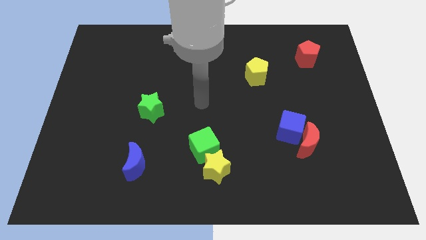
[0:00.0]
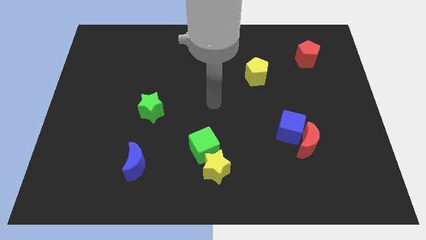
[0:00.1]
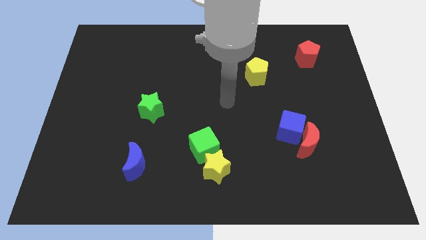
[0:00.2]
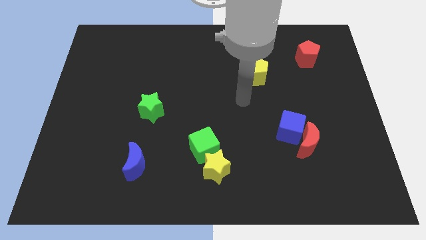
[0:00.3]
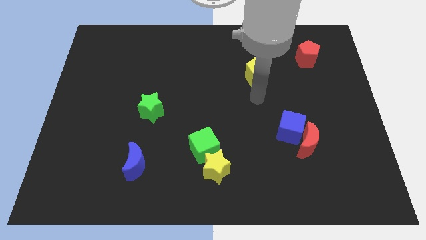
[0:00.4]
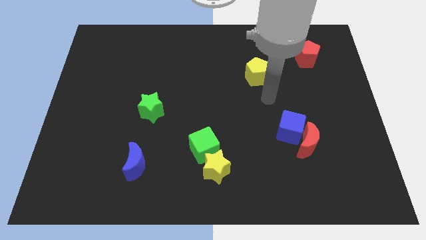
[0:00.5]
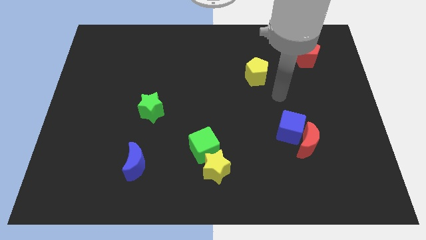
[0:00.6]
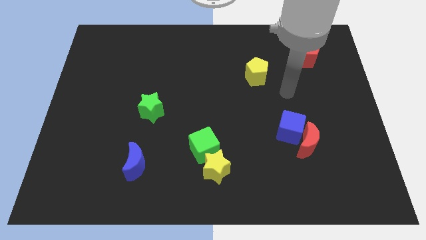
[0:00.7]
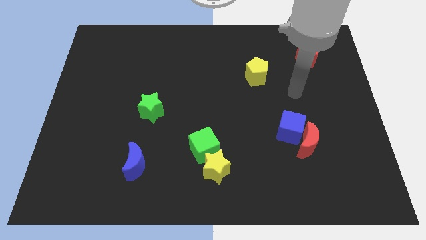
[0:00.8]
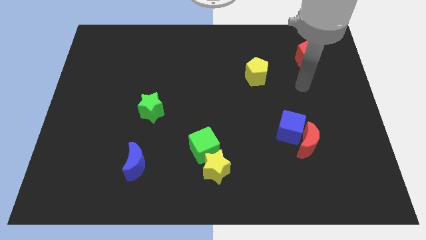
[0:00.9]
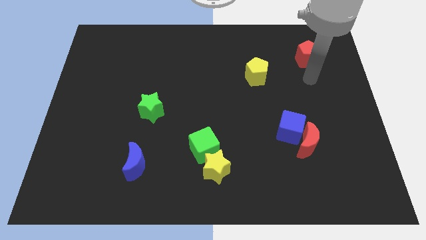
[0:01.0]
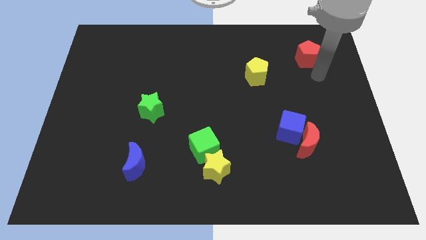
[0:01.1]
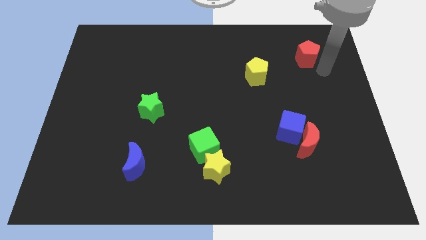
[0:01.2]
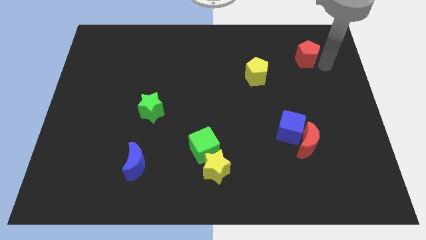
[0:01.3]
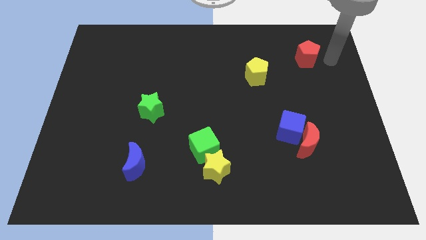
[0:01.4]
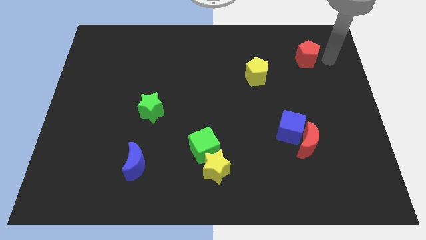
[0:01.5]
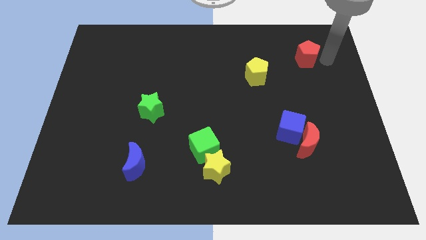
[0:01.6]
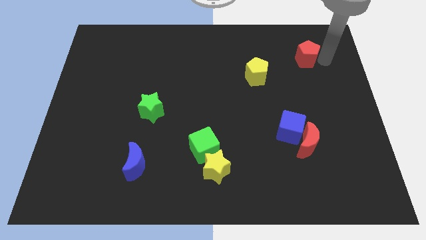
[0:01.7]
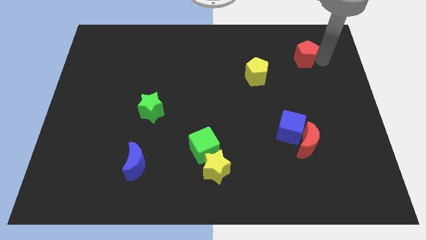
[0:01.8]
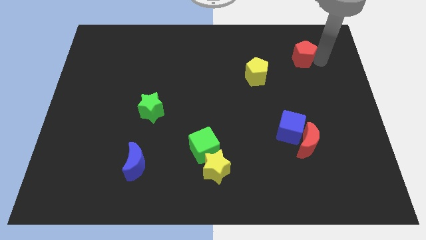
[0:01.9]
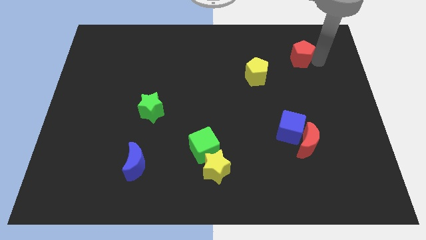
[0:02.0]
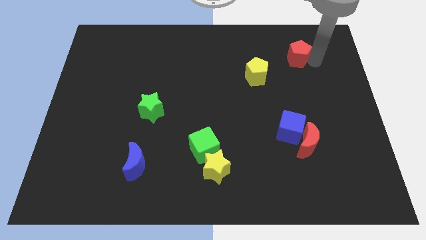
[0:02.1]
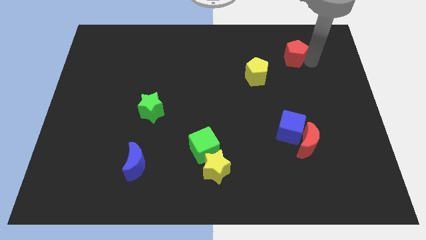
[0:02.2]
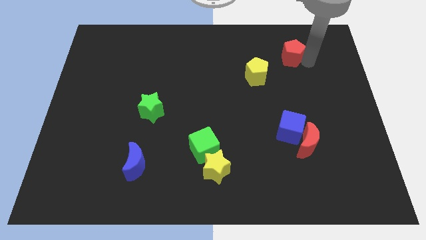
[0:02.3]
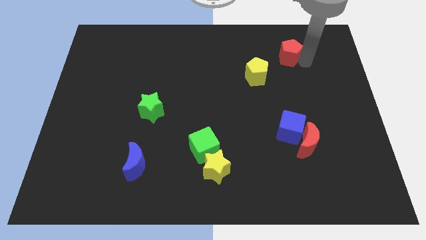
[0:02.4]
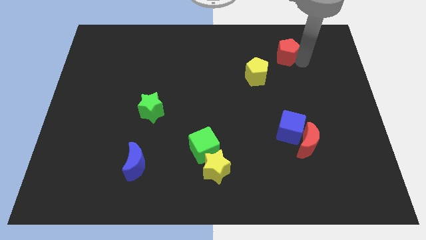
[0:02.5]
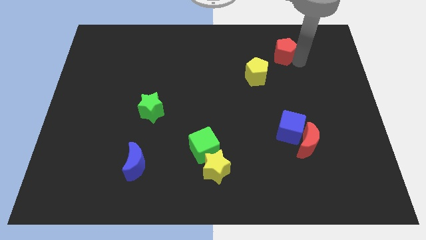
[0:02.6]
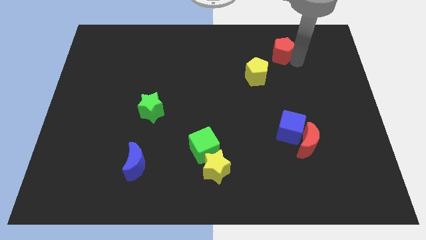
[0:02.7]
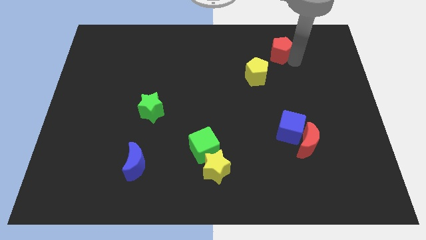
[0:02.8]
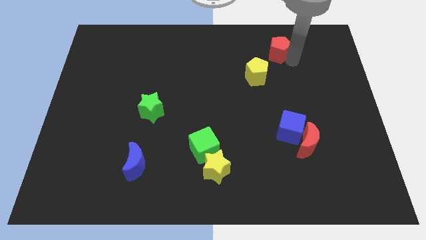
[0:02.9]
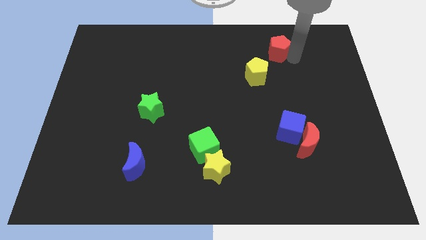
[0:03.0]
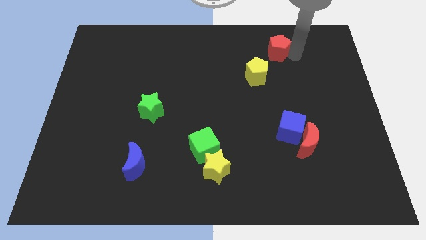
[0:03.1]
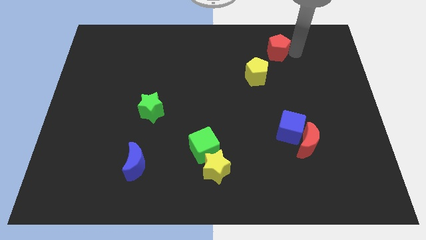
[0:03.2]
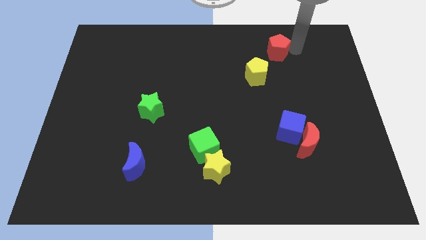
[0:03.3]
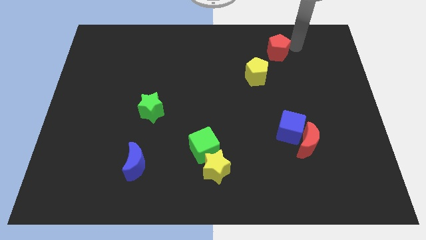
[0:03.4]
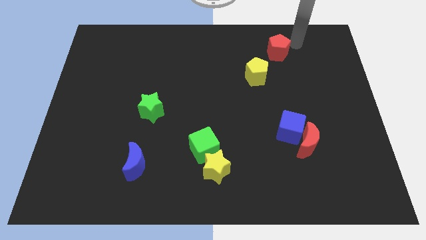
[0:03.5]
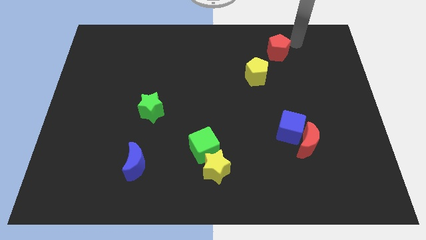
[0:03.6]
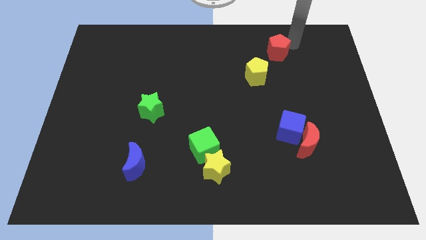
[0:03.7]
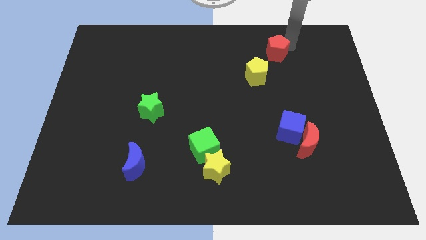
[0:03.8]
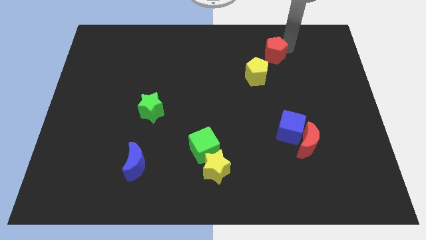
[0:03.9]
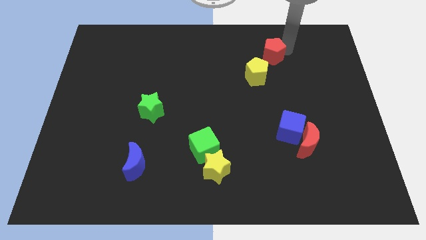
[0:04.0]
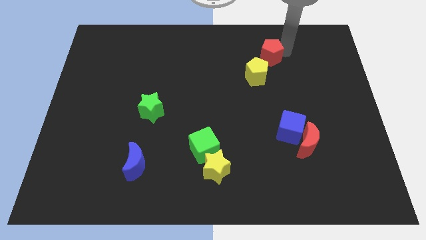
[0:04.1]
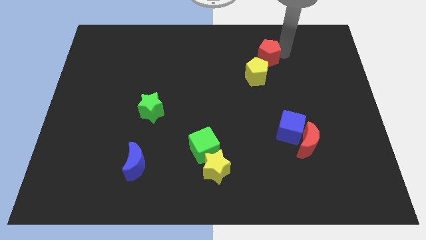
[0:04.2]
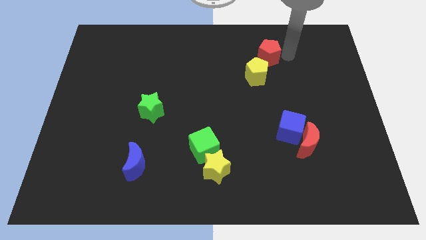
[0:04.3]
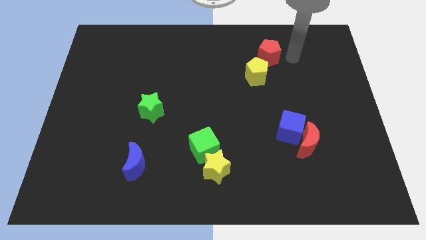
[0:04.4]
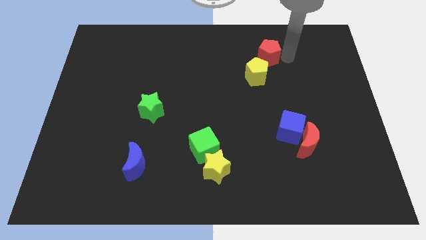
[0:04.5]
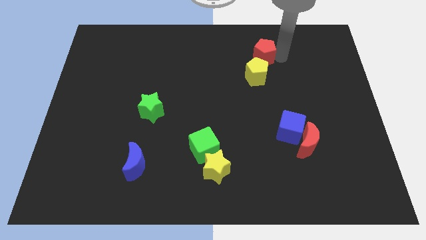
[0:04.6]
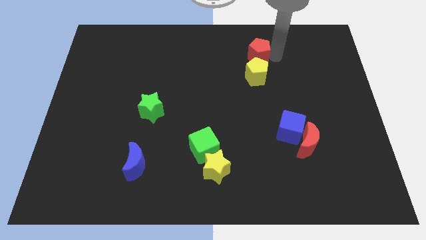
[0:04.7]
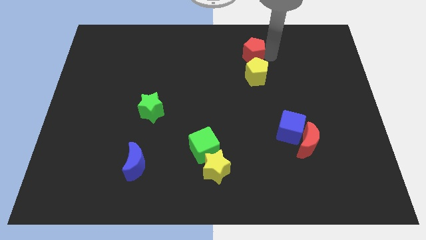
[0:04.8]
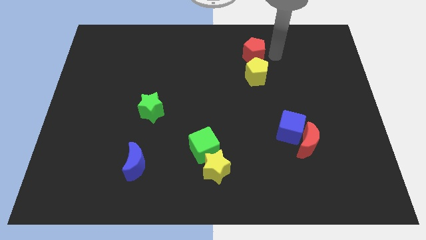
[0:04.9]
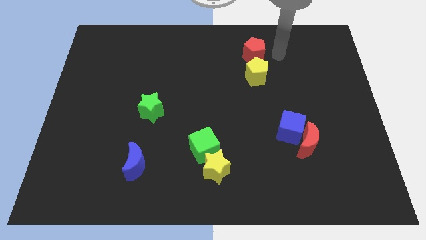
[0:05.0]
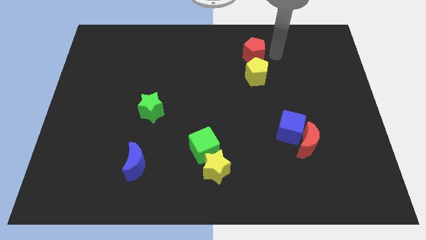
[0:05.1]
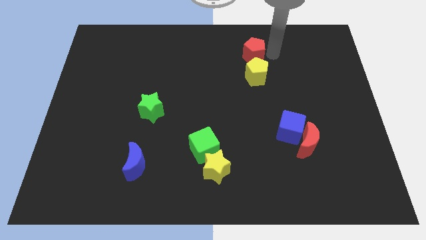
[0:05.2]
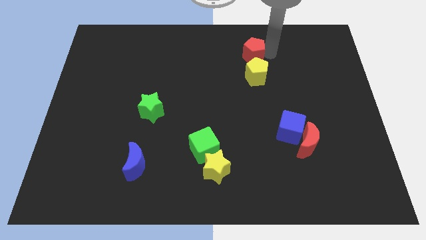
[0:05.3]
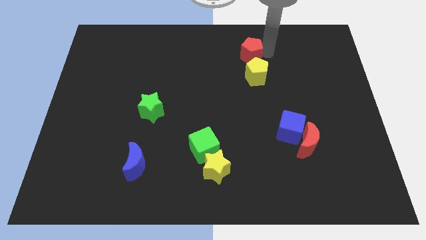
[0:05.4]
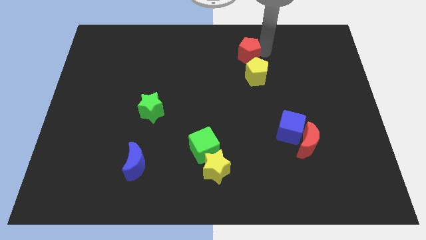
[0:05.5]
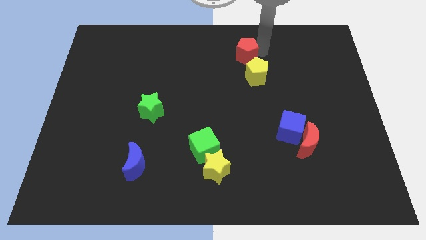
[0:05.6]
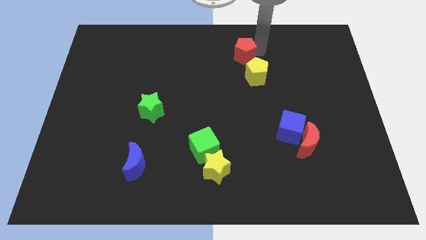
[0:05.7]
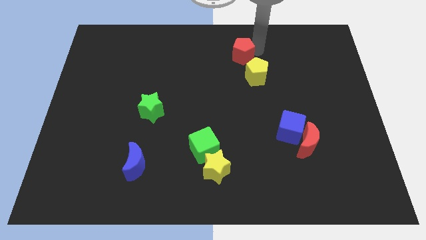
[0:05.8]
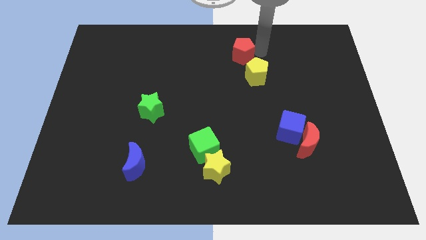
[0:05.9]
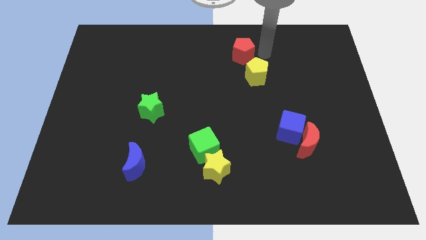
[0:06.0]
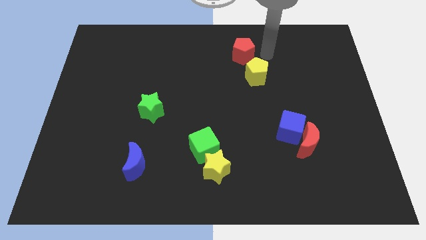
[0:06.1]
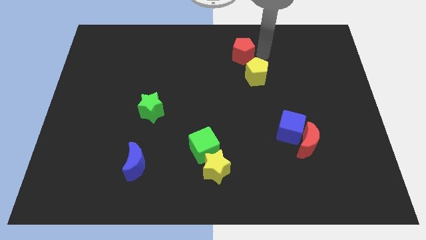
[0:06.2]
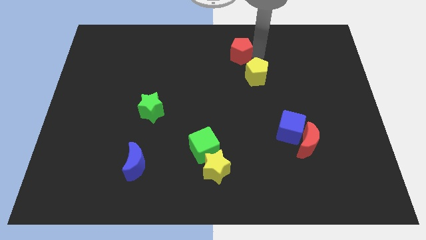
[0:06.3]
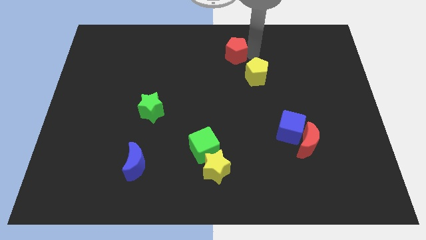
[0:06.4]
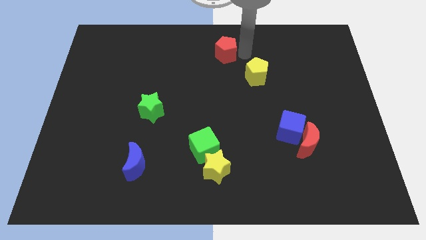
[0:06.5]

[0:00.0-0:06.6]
move the red pentagon left

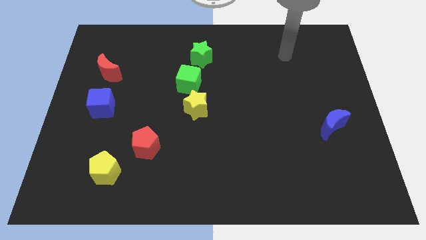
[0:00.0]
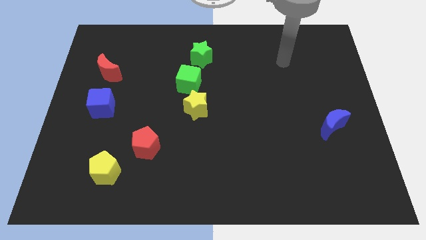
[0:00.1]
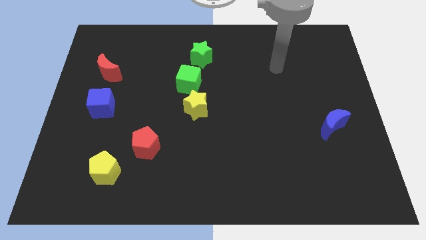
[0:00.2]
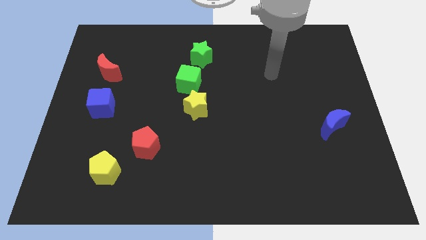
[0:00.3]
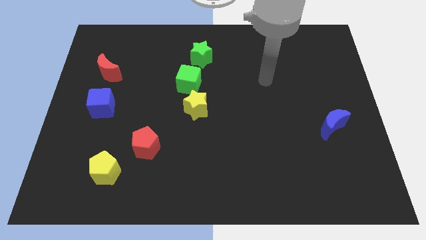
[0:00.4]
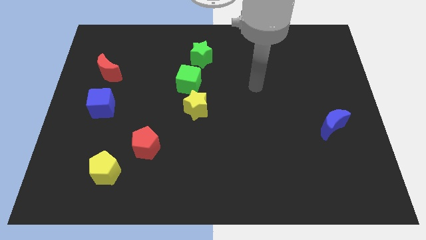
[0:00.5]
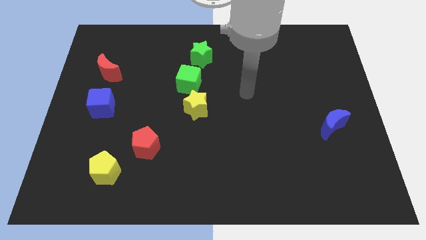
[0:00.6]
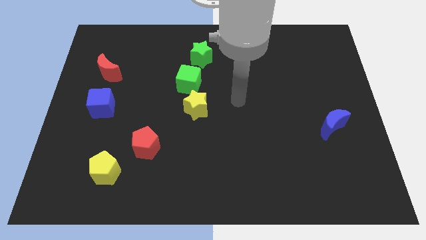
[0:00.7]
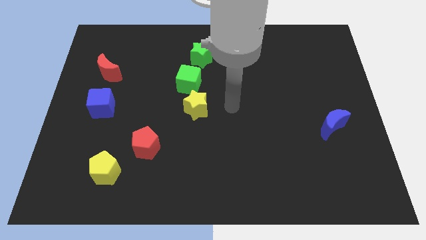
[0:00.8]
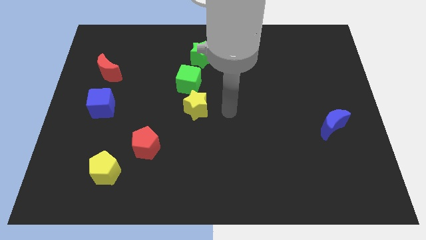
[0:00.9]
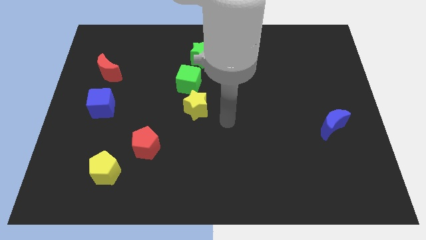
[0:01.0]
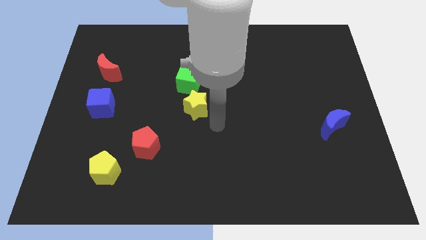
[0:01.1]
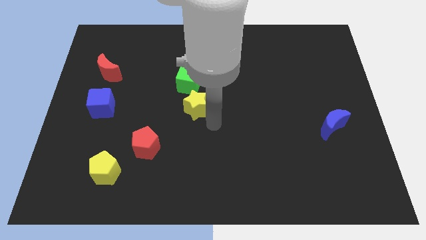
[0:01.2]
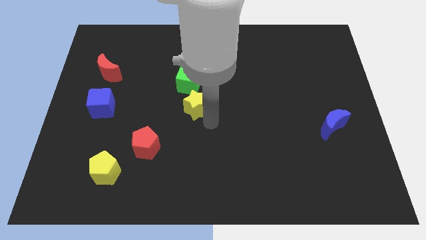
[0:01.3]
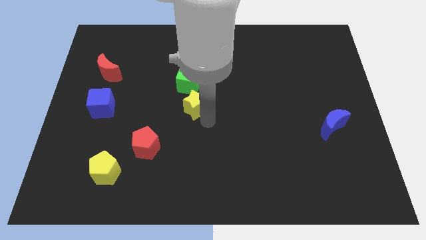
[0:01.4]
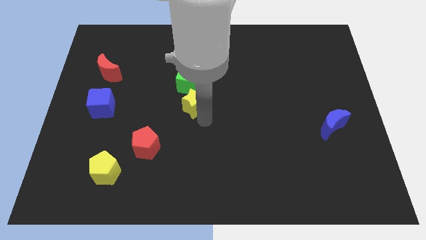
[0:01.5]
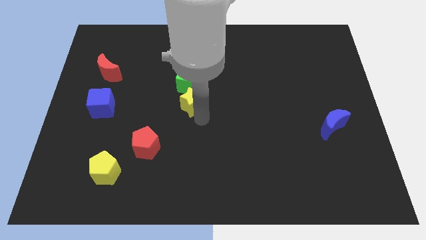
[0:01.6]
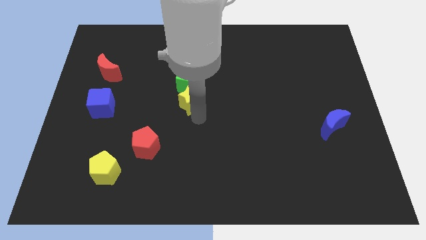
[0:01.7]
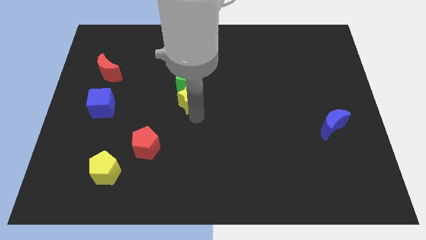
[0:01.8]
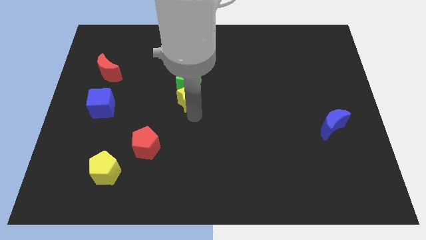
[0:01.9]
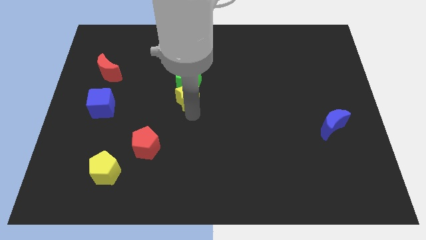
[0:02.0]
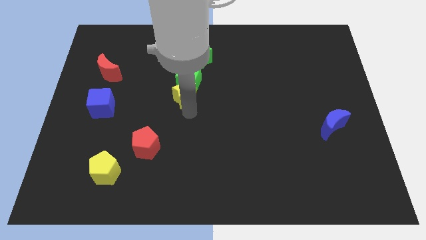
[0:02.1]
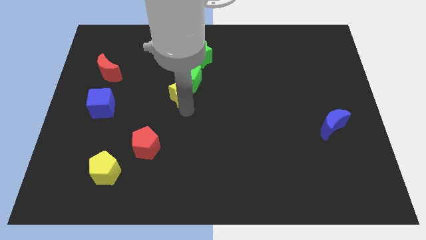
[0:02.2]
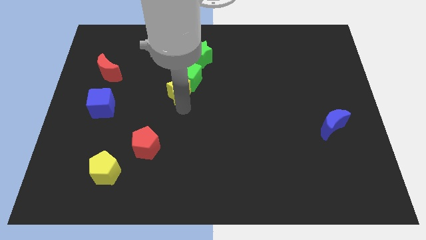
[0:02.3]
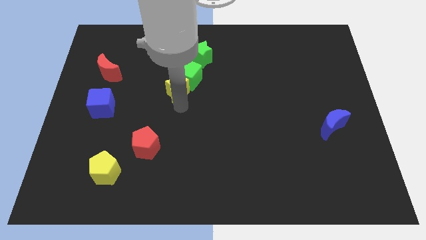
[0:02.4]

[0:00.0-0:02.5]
move the yellow star slightly upwards and left diagonally
